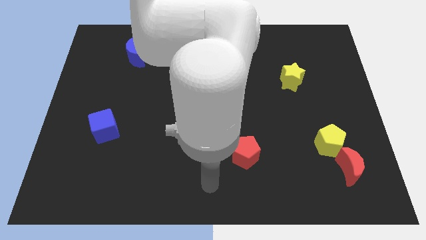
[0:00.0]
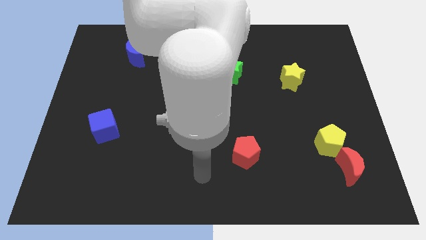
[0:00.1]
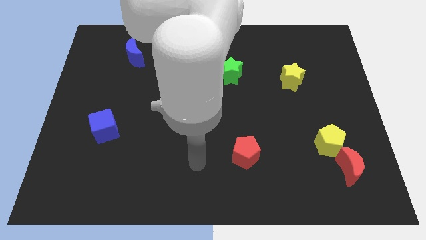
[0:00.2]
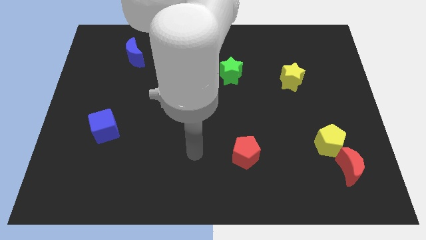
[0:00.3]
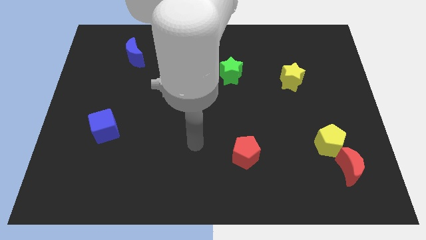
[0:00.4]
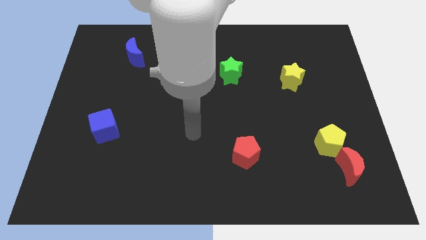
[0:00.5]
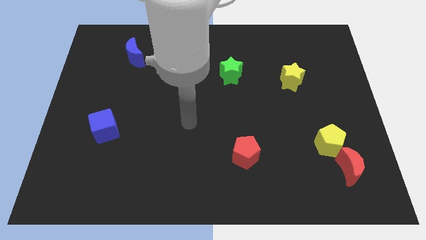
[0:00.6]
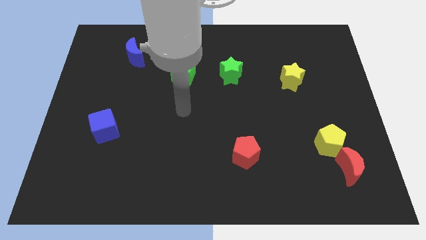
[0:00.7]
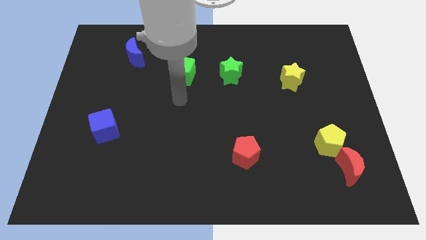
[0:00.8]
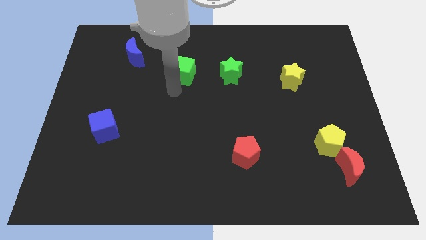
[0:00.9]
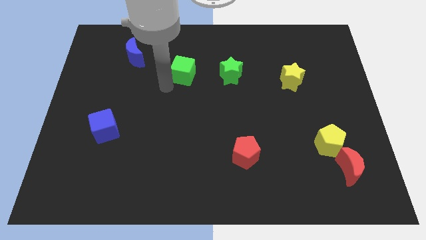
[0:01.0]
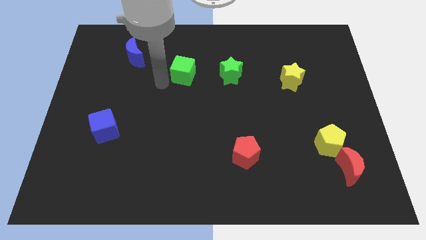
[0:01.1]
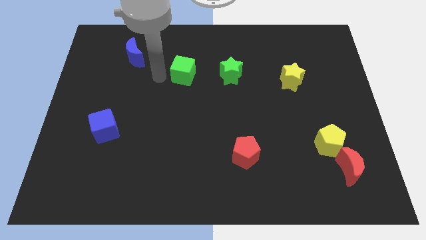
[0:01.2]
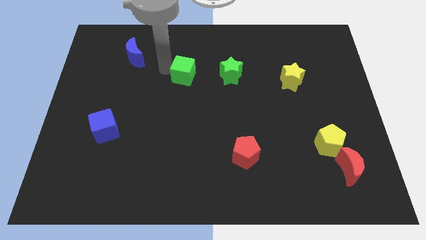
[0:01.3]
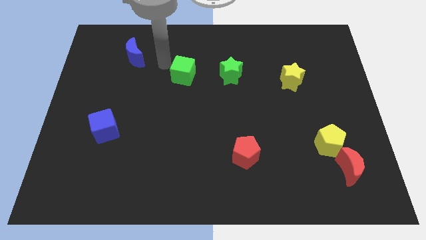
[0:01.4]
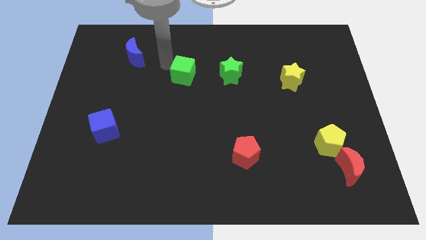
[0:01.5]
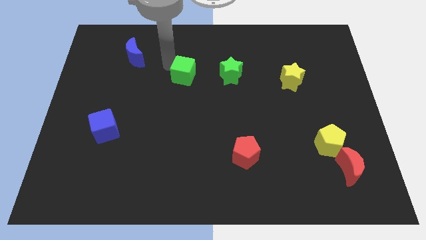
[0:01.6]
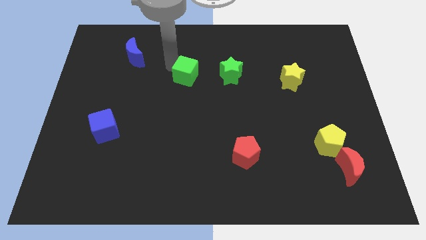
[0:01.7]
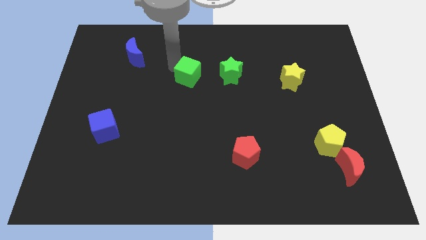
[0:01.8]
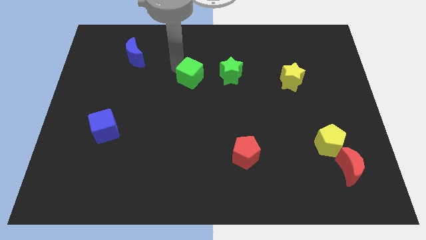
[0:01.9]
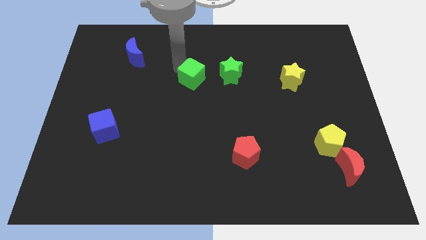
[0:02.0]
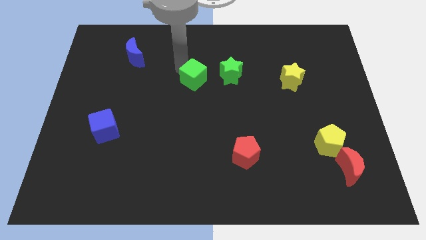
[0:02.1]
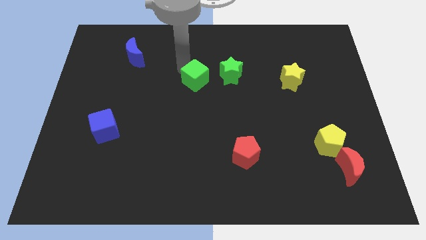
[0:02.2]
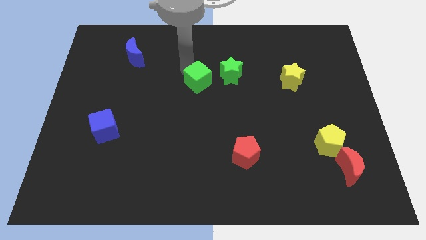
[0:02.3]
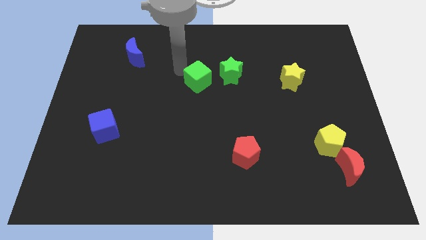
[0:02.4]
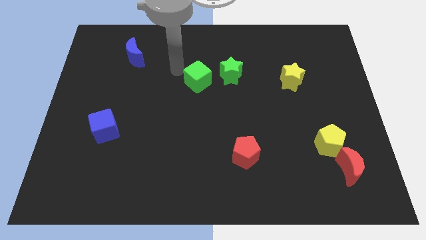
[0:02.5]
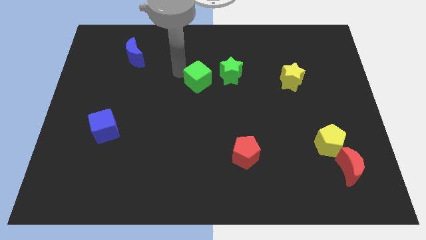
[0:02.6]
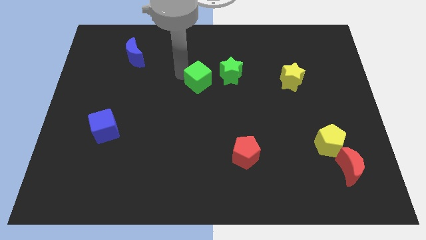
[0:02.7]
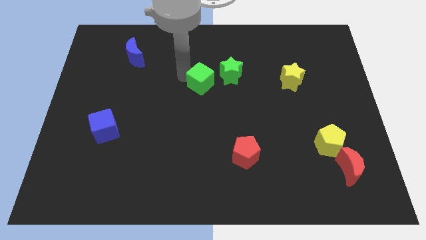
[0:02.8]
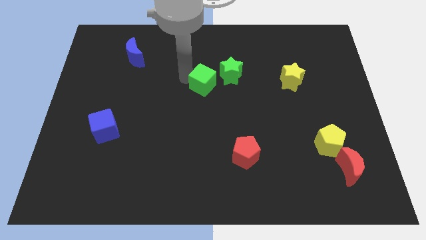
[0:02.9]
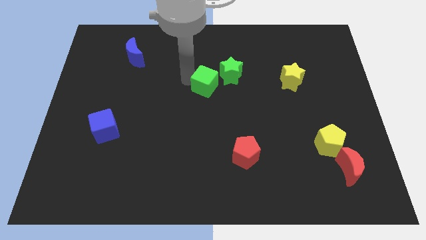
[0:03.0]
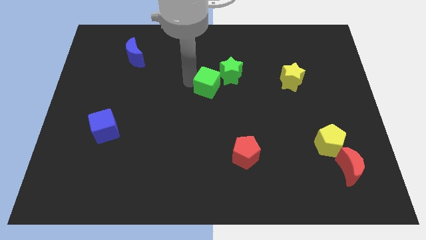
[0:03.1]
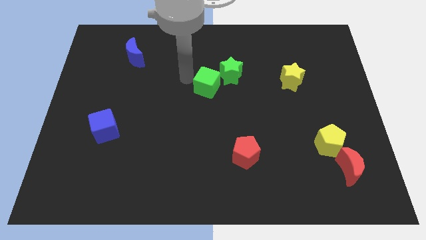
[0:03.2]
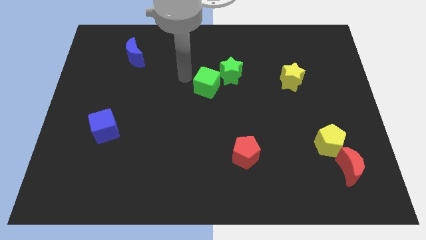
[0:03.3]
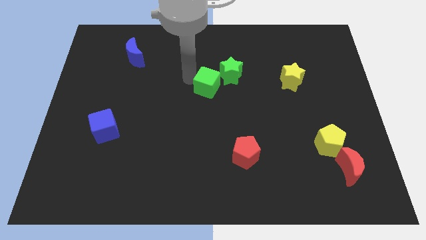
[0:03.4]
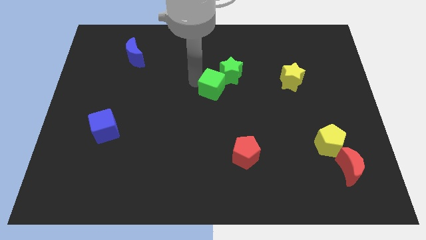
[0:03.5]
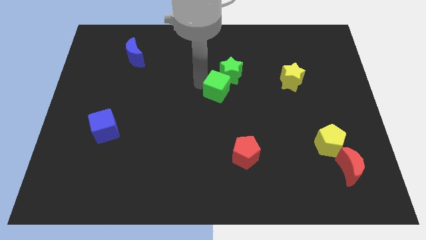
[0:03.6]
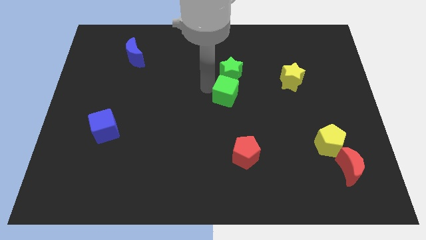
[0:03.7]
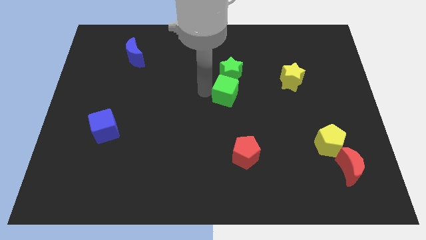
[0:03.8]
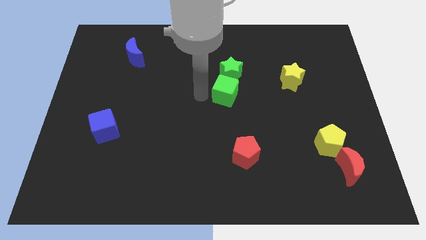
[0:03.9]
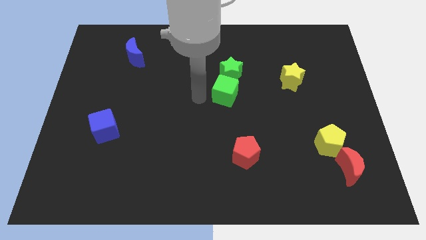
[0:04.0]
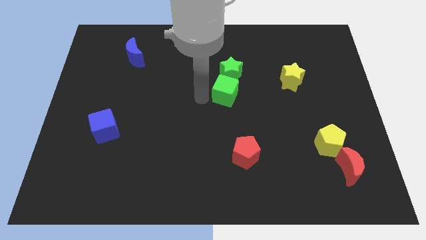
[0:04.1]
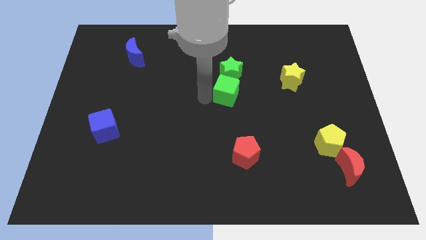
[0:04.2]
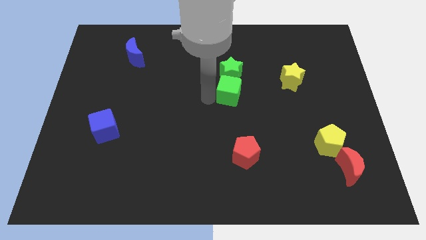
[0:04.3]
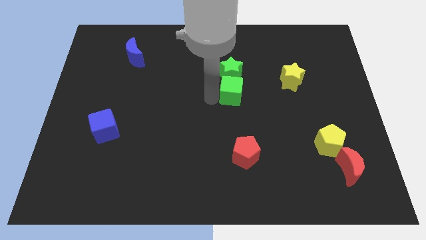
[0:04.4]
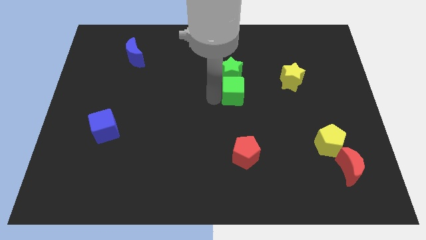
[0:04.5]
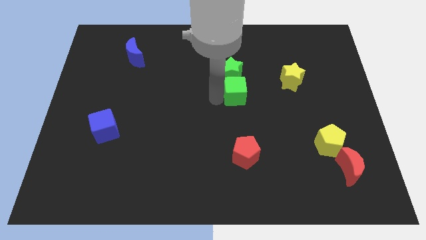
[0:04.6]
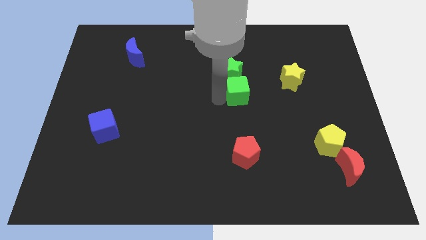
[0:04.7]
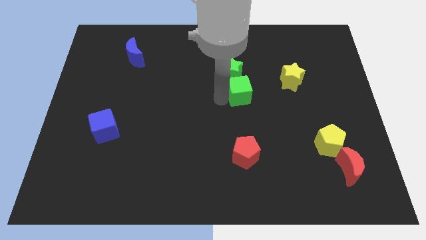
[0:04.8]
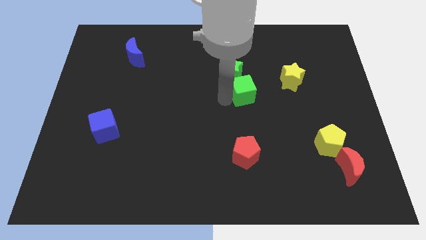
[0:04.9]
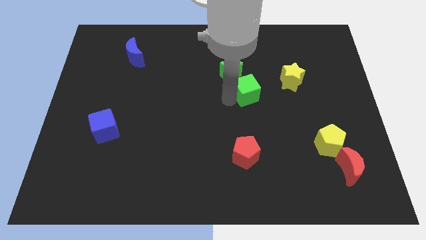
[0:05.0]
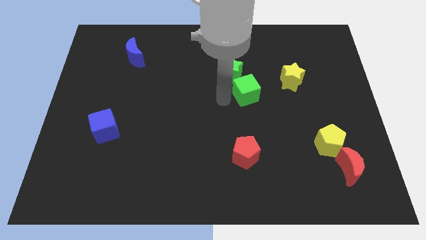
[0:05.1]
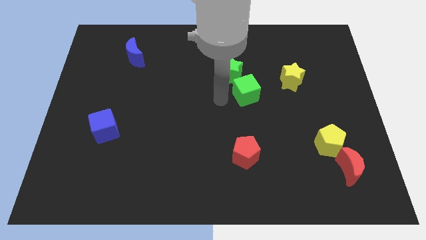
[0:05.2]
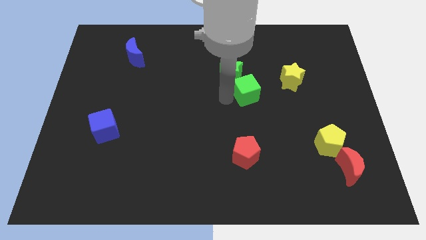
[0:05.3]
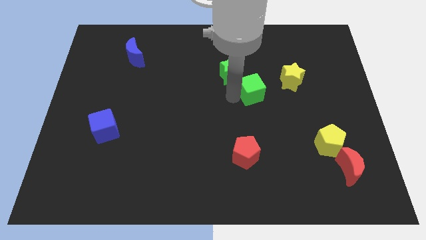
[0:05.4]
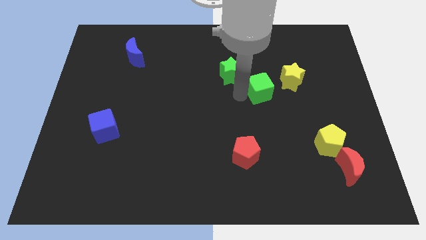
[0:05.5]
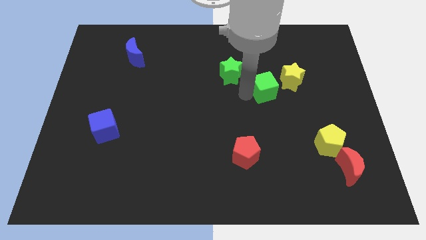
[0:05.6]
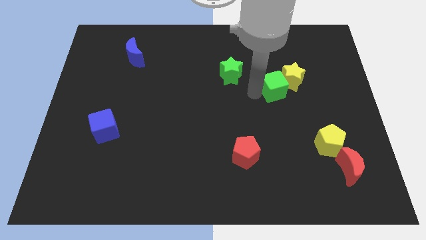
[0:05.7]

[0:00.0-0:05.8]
slide the green cube next to the yellow star

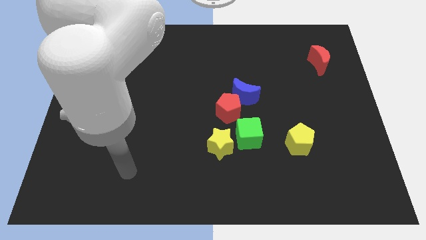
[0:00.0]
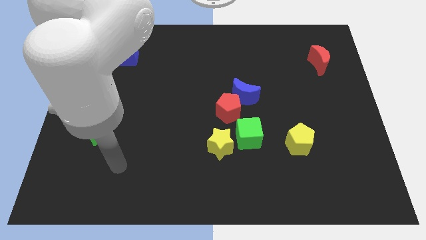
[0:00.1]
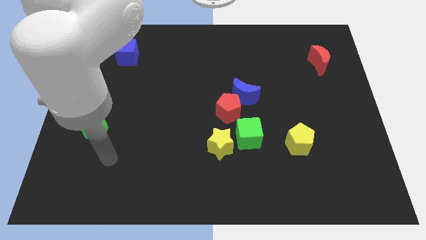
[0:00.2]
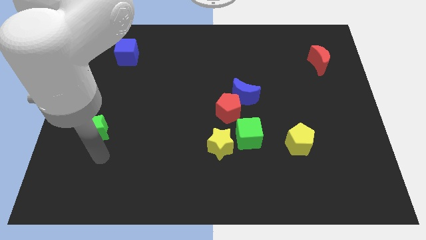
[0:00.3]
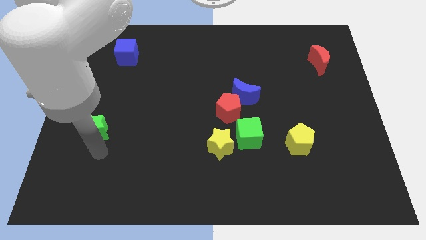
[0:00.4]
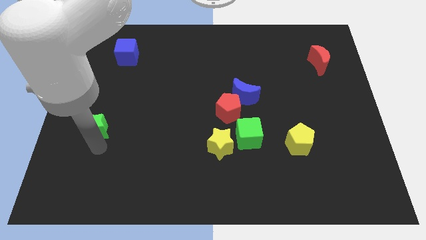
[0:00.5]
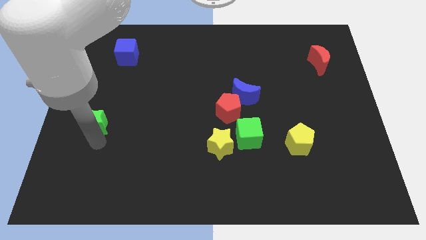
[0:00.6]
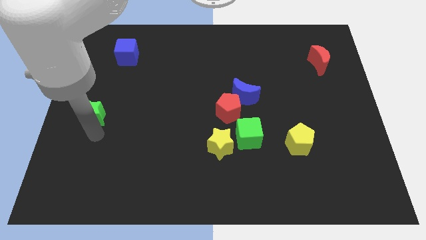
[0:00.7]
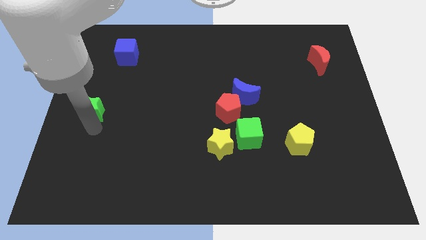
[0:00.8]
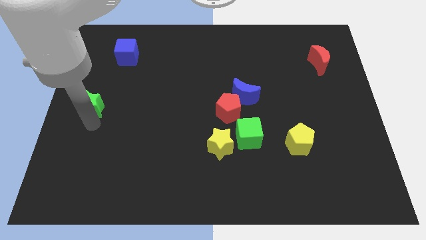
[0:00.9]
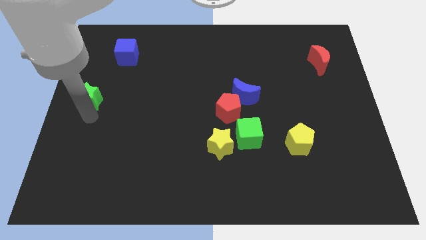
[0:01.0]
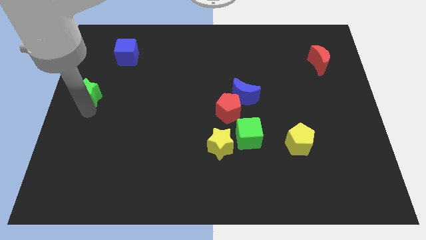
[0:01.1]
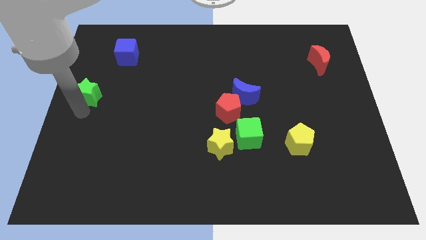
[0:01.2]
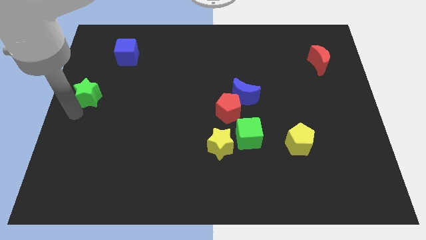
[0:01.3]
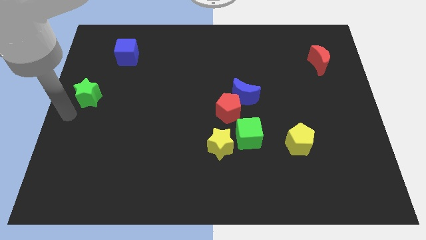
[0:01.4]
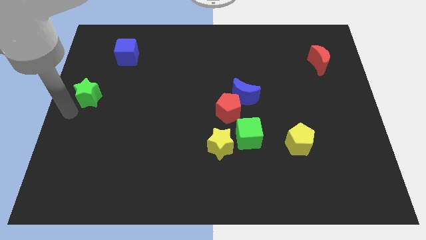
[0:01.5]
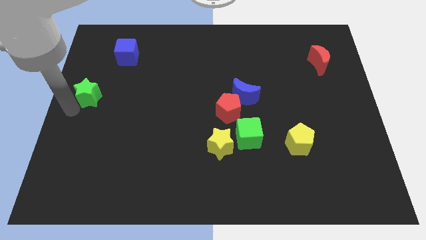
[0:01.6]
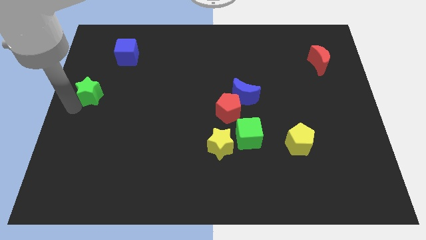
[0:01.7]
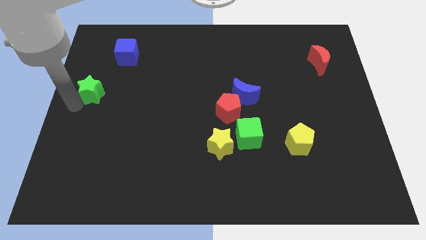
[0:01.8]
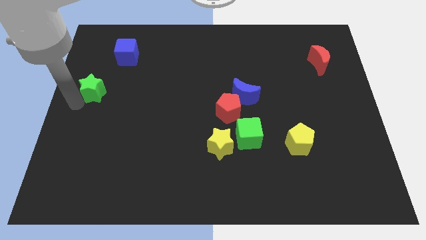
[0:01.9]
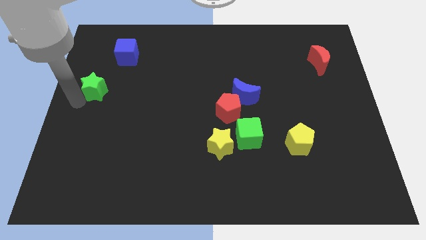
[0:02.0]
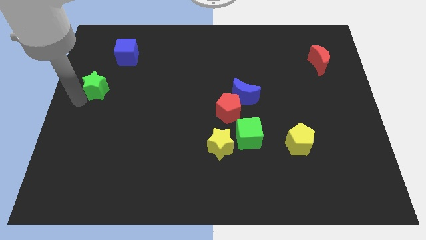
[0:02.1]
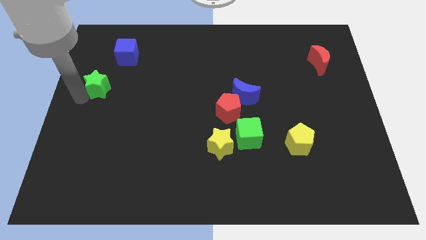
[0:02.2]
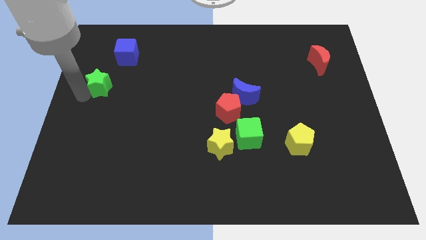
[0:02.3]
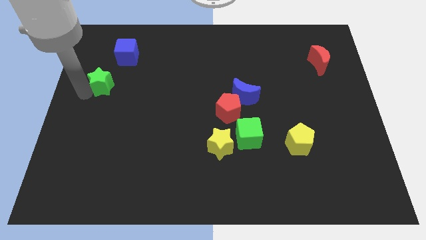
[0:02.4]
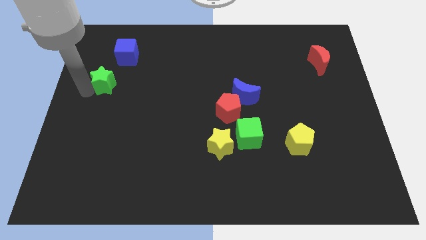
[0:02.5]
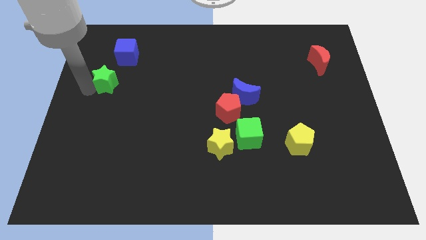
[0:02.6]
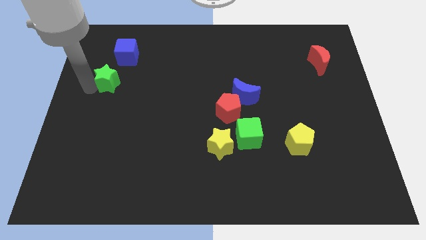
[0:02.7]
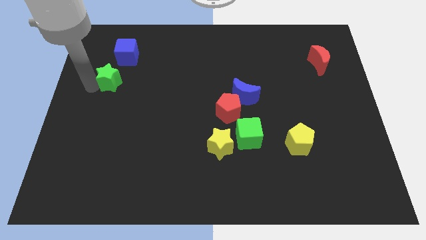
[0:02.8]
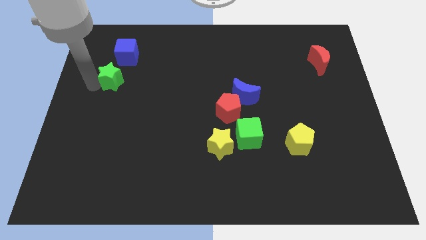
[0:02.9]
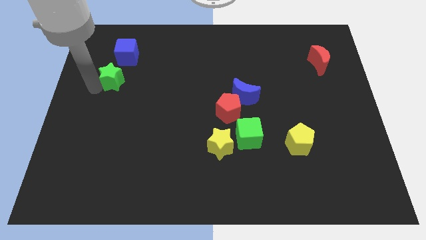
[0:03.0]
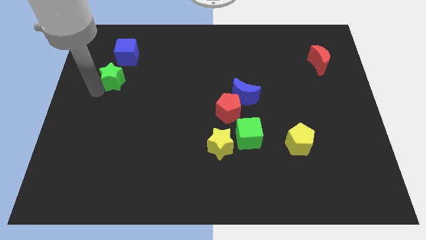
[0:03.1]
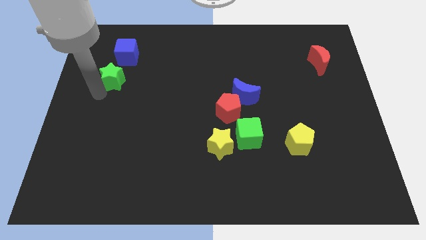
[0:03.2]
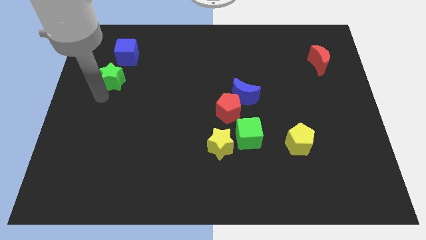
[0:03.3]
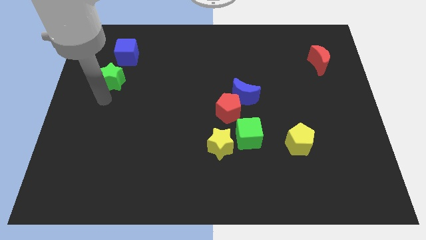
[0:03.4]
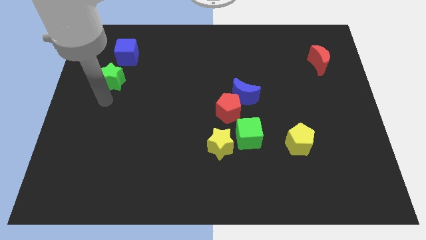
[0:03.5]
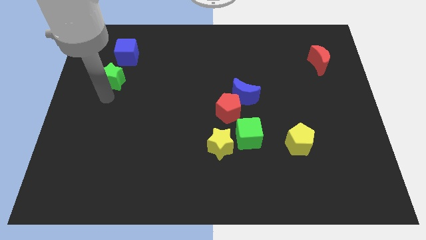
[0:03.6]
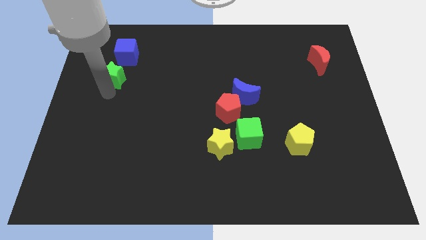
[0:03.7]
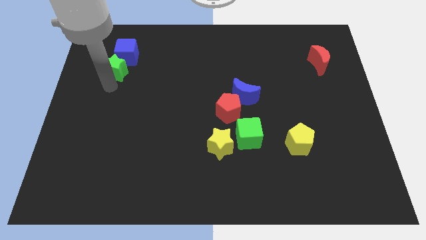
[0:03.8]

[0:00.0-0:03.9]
slide the green star close to the blue cube
